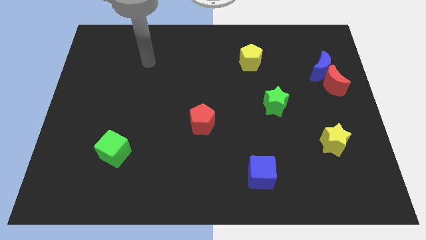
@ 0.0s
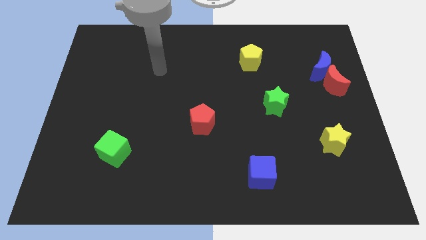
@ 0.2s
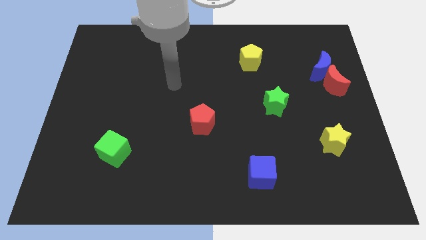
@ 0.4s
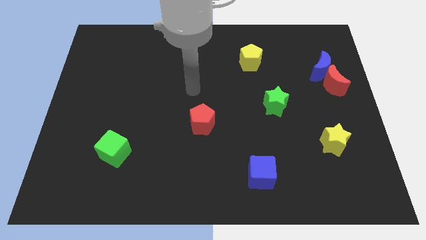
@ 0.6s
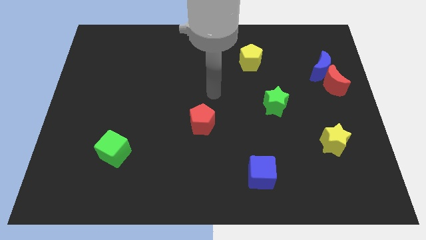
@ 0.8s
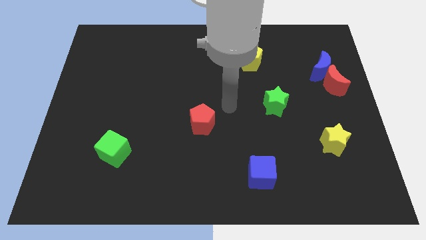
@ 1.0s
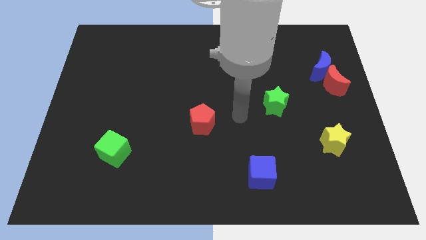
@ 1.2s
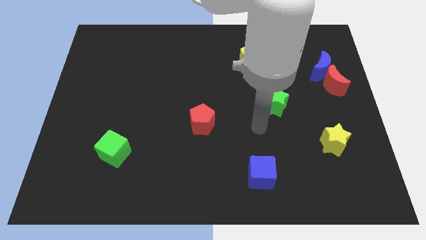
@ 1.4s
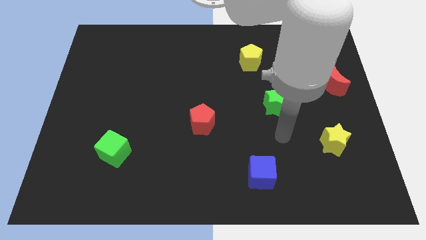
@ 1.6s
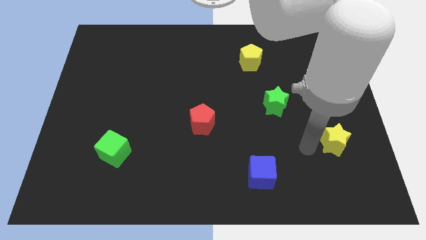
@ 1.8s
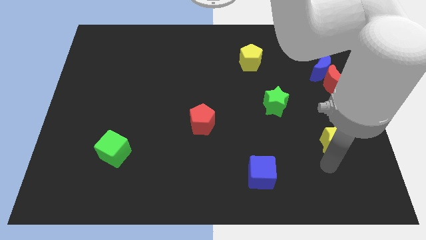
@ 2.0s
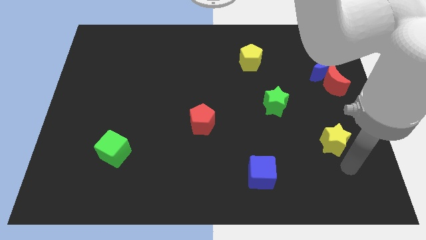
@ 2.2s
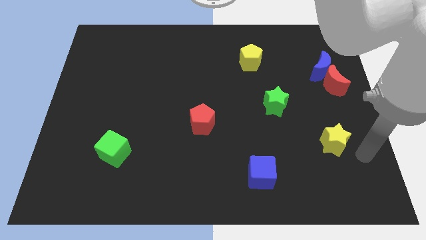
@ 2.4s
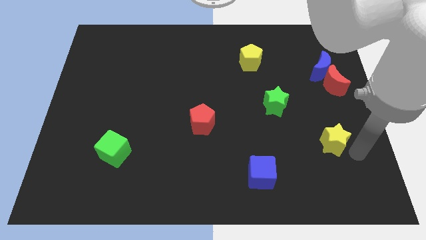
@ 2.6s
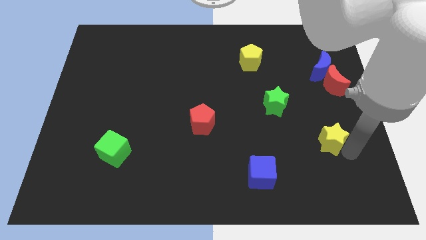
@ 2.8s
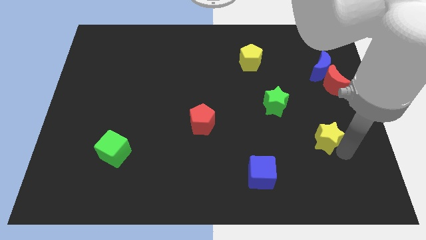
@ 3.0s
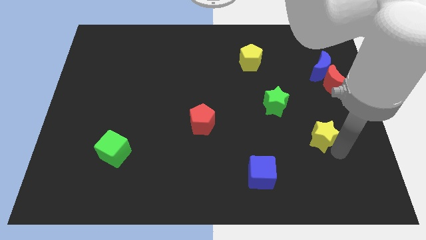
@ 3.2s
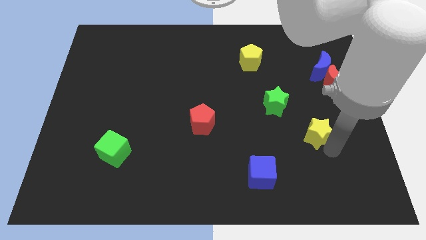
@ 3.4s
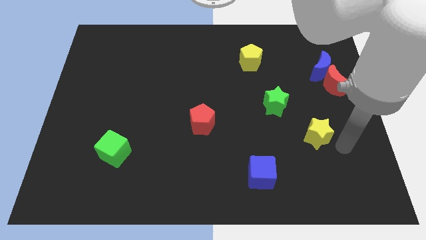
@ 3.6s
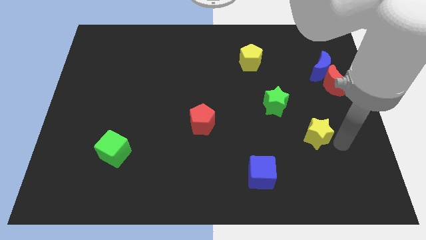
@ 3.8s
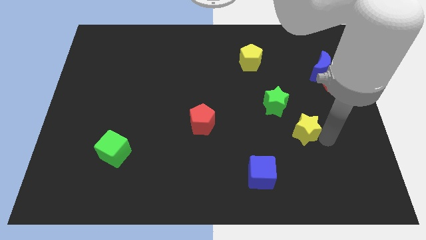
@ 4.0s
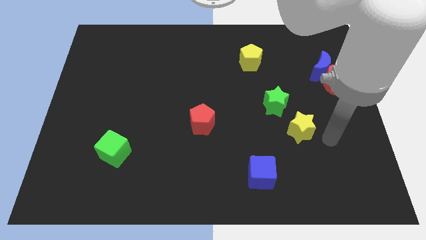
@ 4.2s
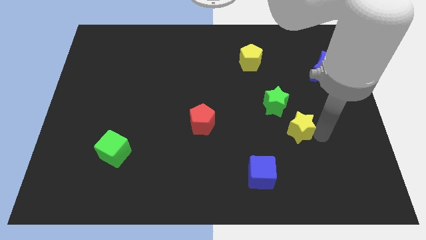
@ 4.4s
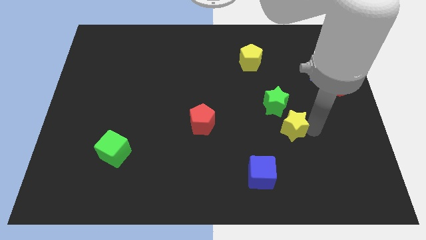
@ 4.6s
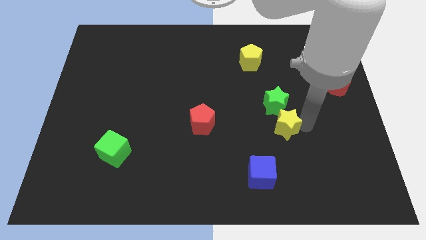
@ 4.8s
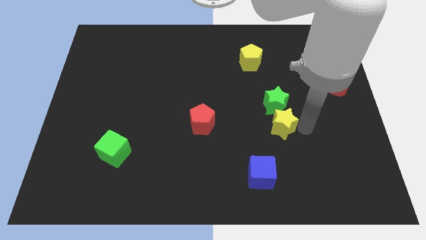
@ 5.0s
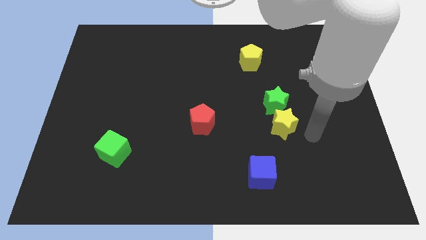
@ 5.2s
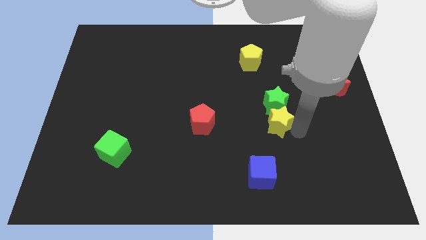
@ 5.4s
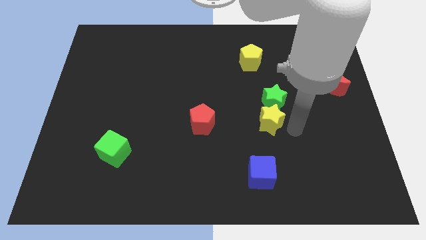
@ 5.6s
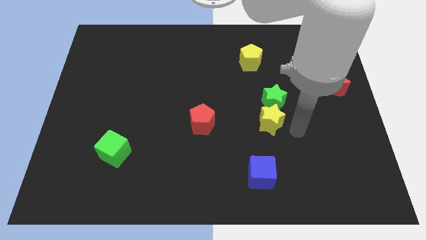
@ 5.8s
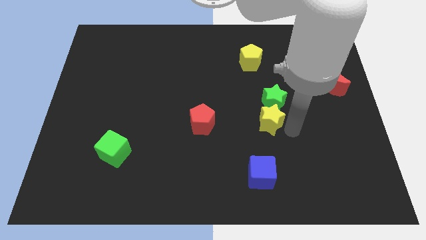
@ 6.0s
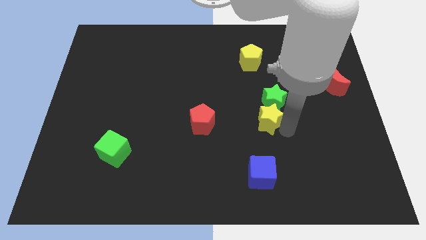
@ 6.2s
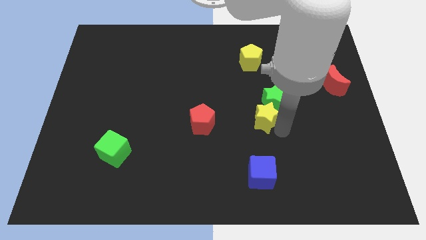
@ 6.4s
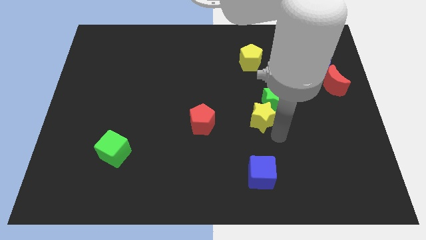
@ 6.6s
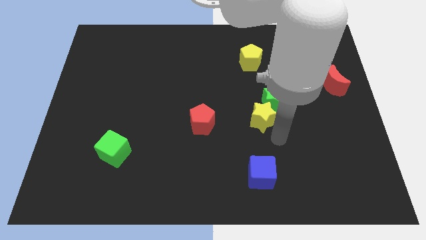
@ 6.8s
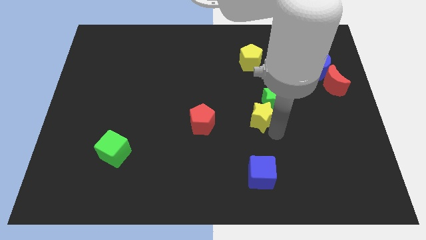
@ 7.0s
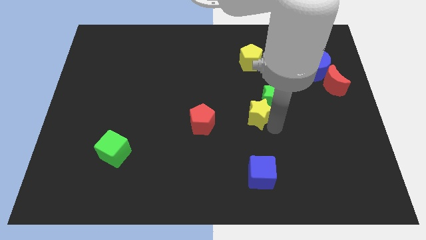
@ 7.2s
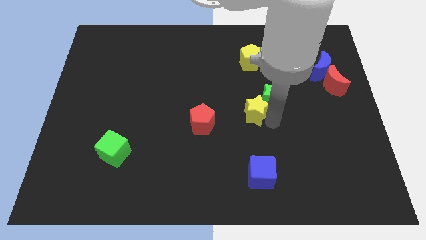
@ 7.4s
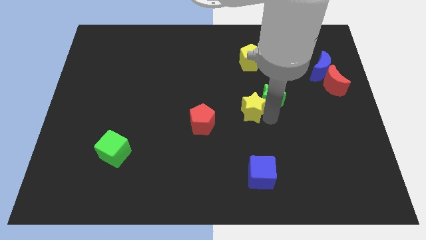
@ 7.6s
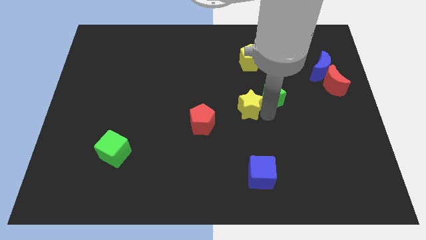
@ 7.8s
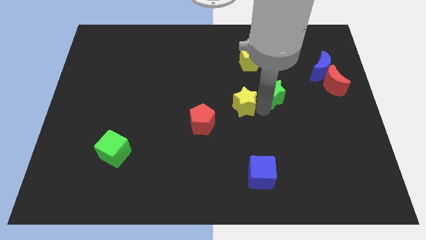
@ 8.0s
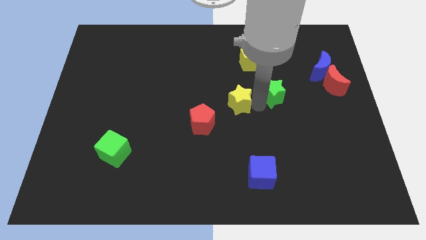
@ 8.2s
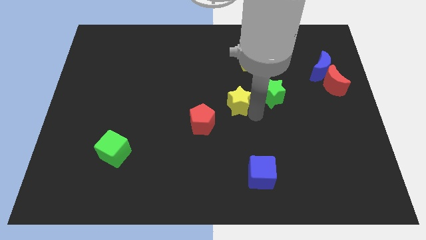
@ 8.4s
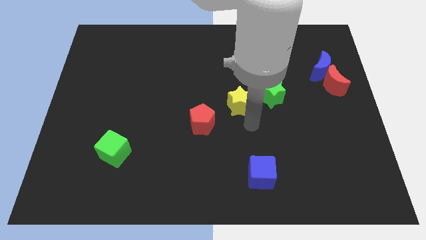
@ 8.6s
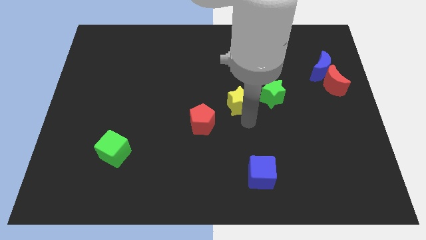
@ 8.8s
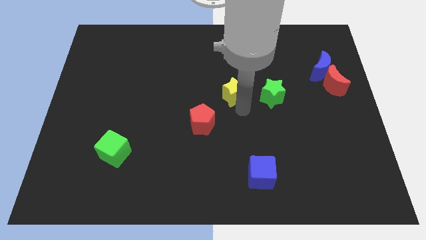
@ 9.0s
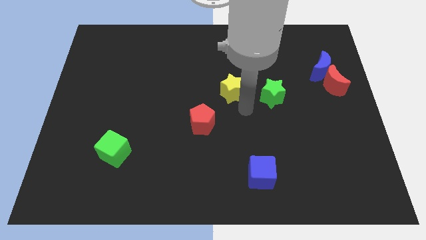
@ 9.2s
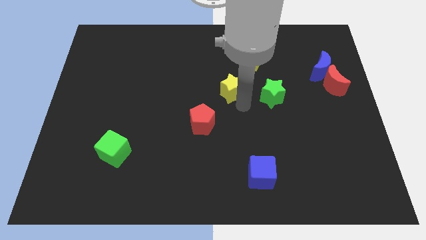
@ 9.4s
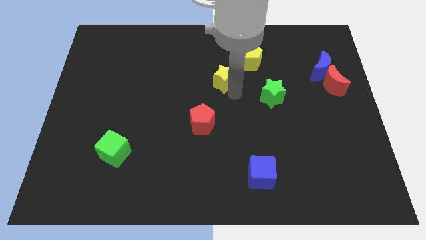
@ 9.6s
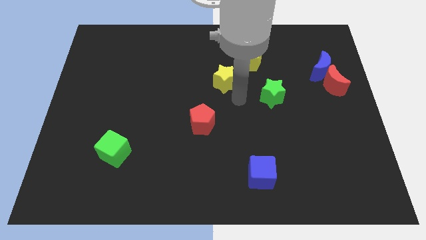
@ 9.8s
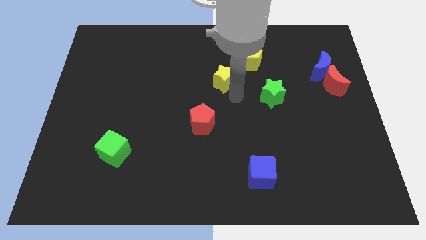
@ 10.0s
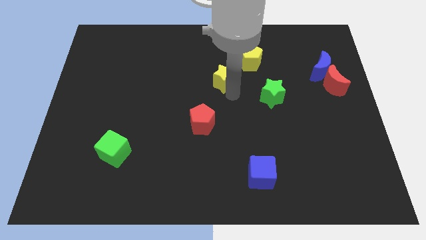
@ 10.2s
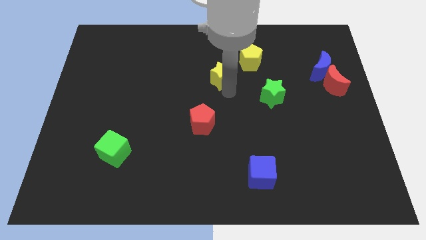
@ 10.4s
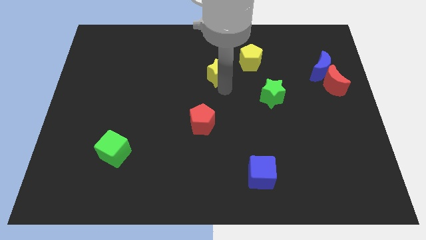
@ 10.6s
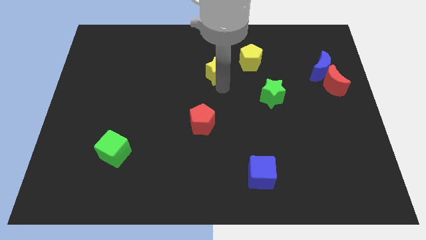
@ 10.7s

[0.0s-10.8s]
put the yellow star to the left side of the yellow pentagon

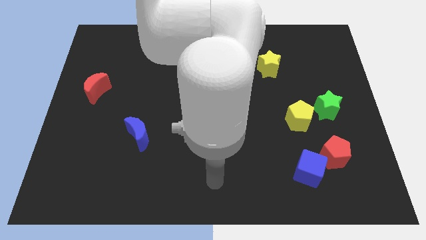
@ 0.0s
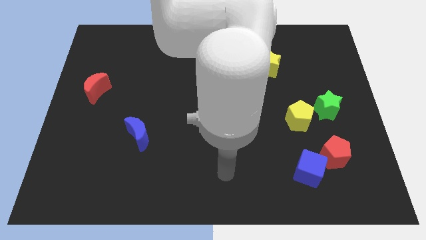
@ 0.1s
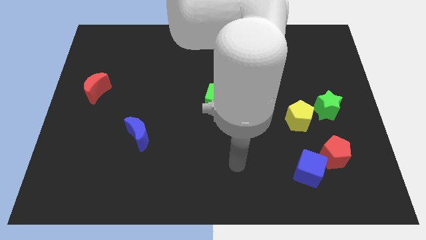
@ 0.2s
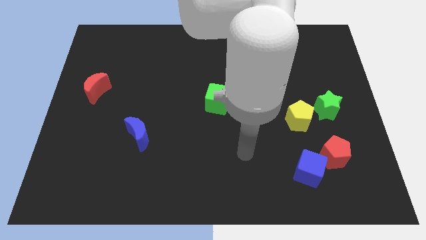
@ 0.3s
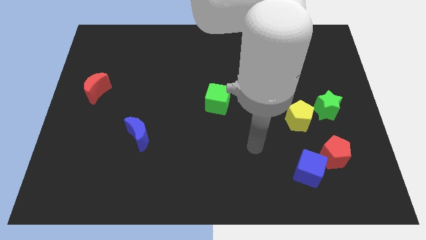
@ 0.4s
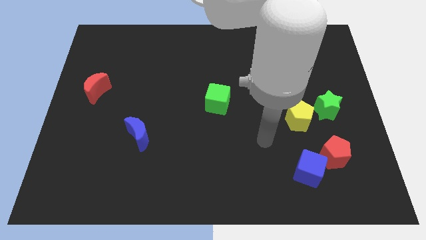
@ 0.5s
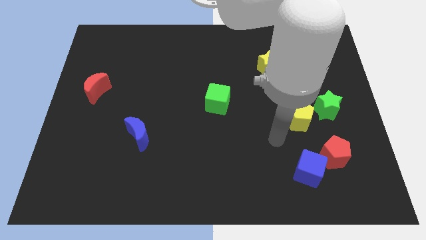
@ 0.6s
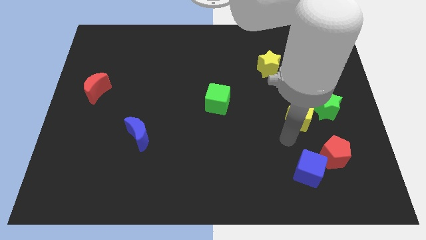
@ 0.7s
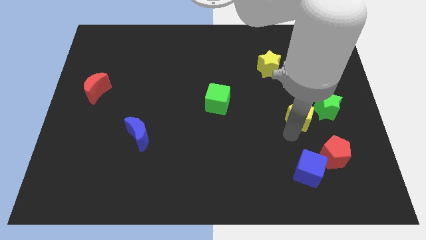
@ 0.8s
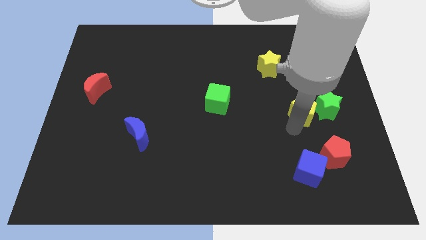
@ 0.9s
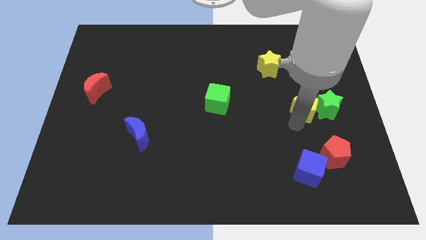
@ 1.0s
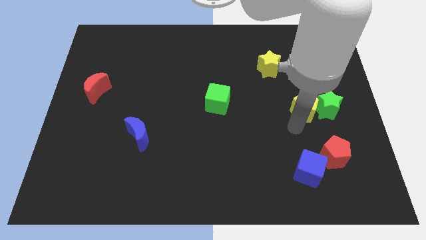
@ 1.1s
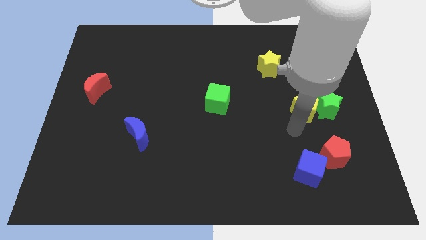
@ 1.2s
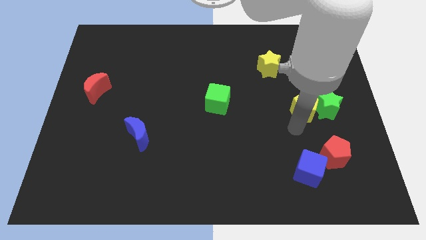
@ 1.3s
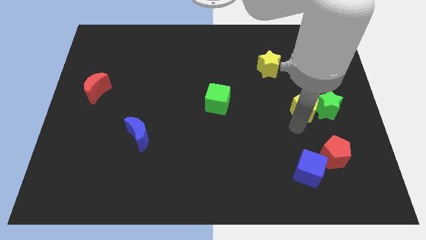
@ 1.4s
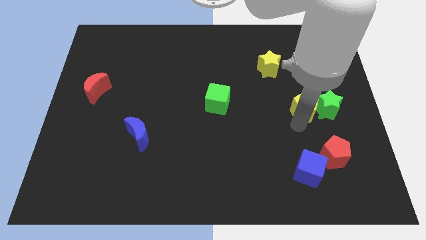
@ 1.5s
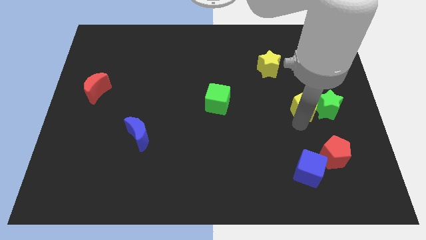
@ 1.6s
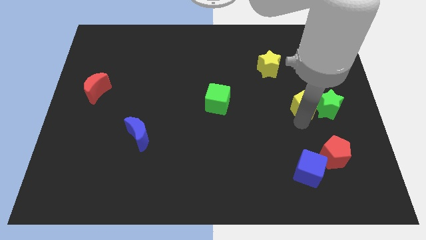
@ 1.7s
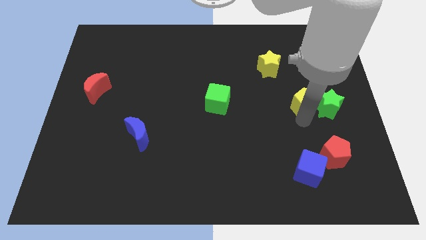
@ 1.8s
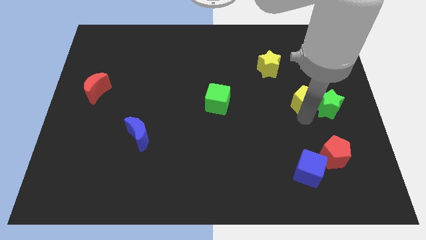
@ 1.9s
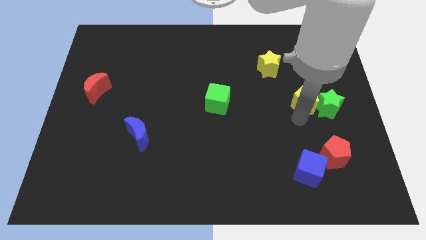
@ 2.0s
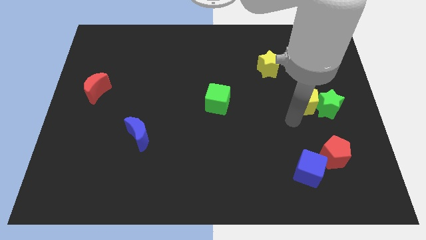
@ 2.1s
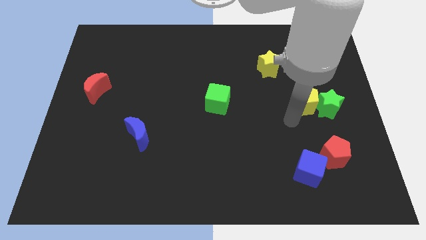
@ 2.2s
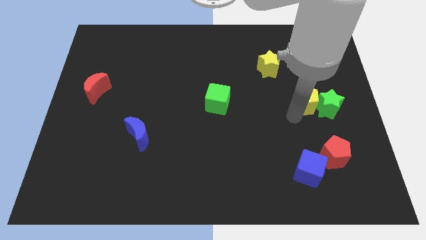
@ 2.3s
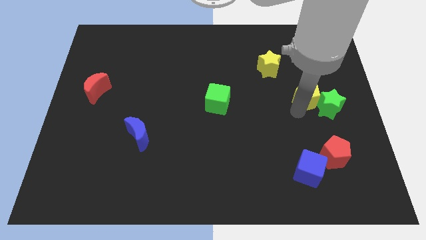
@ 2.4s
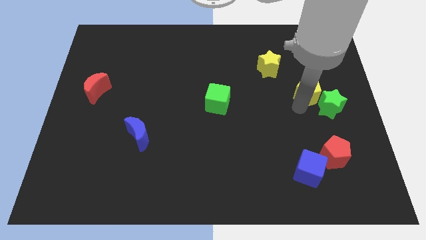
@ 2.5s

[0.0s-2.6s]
push the yellow pentagon above the green star

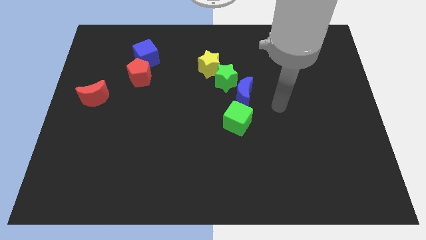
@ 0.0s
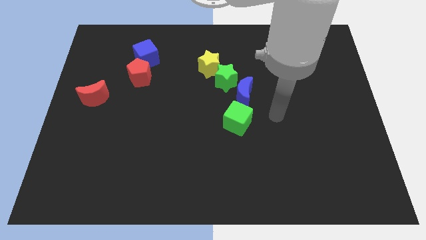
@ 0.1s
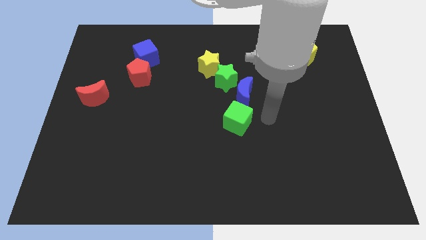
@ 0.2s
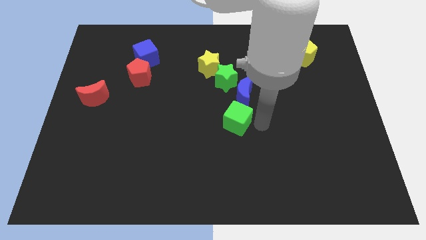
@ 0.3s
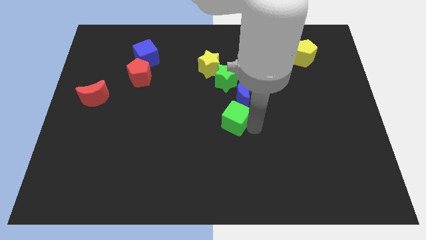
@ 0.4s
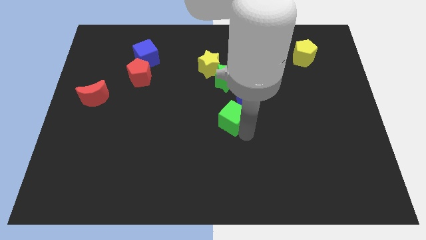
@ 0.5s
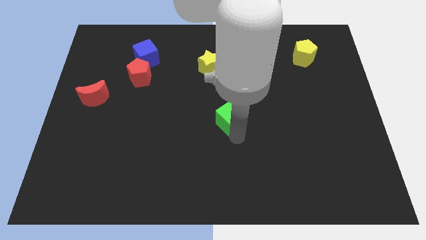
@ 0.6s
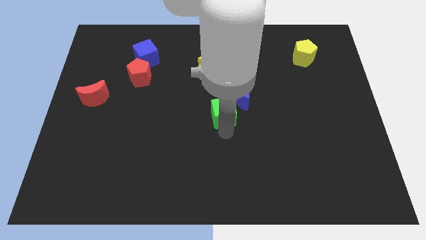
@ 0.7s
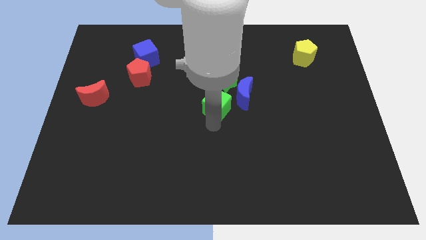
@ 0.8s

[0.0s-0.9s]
put the green star to the top right side of the green cube
